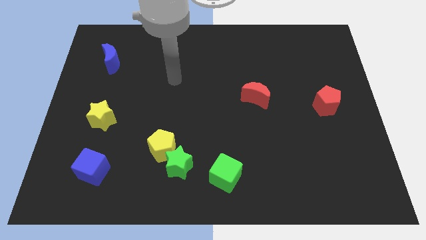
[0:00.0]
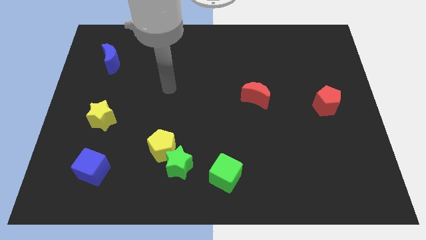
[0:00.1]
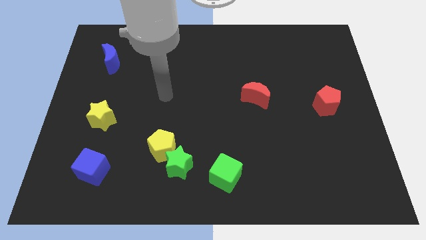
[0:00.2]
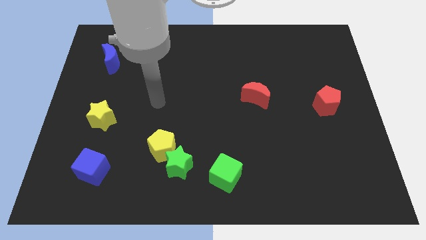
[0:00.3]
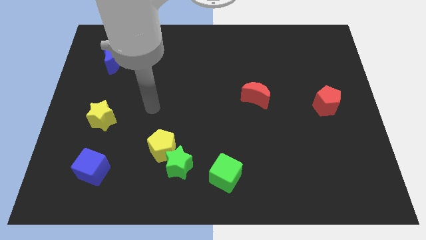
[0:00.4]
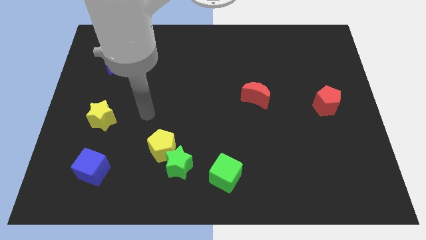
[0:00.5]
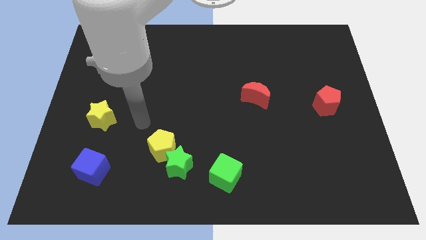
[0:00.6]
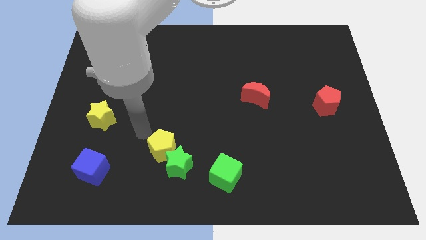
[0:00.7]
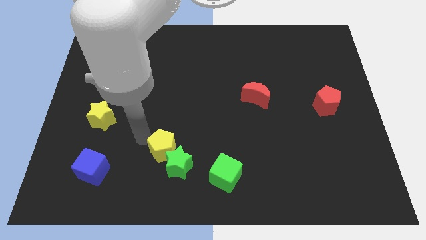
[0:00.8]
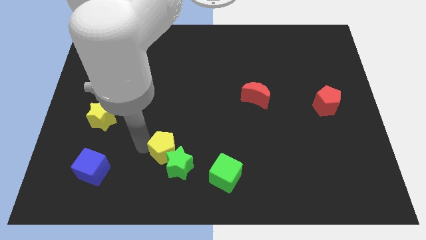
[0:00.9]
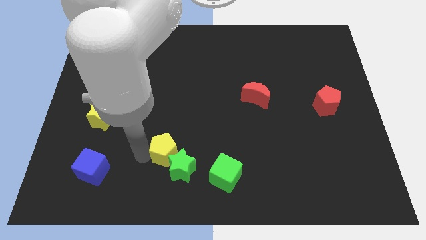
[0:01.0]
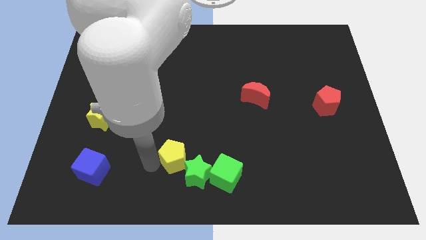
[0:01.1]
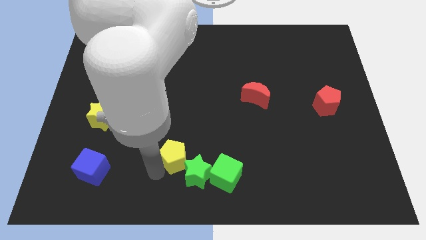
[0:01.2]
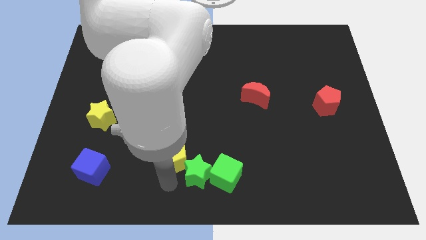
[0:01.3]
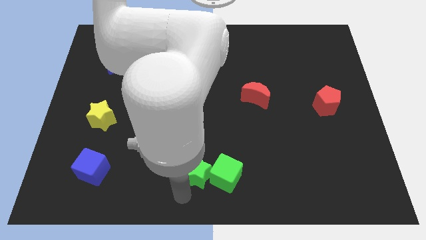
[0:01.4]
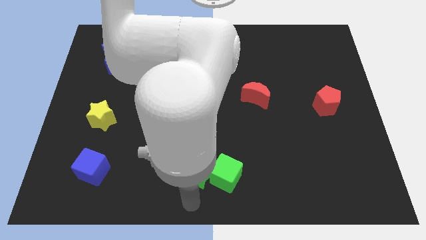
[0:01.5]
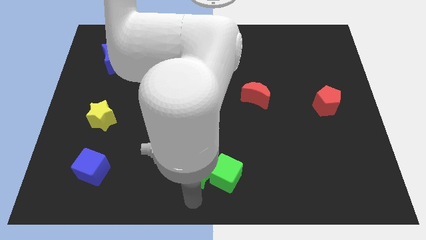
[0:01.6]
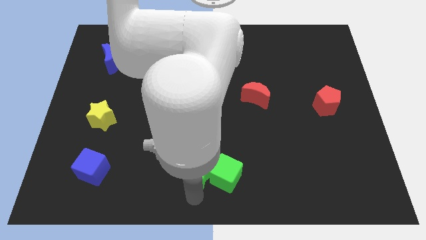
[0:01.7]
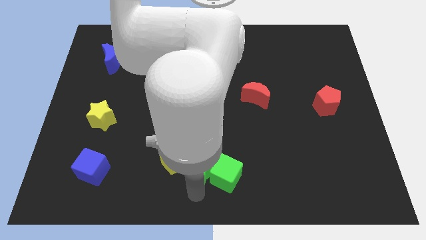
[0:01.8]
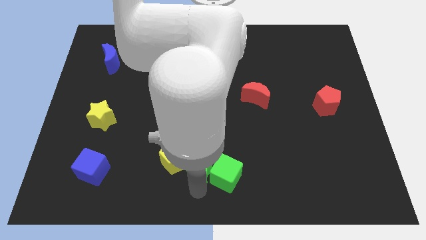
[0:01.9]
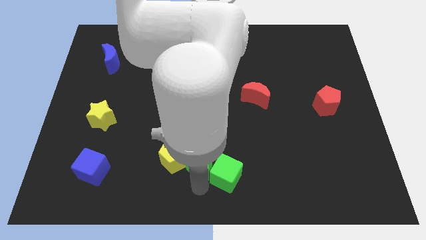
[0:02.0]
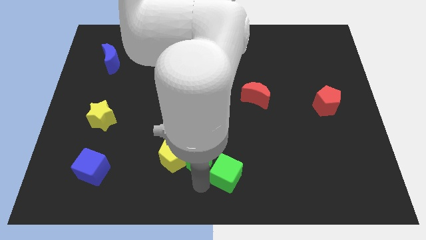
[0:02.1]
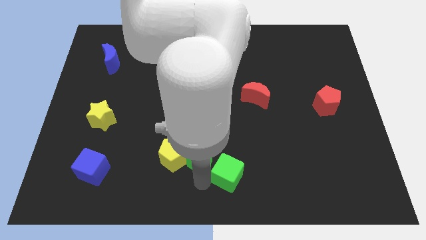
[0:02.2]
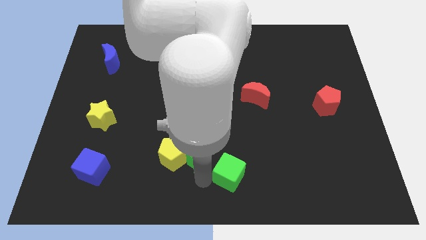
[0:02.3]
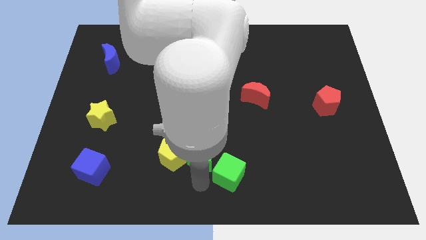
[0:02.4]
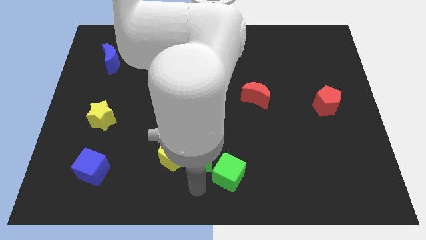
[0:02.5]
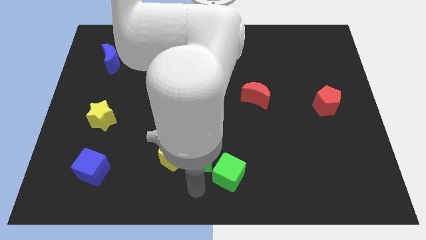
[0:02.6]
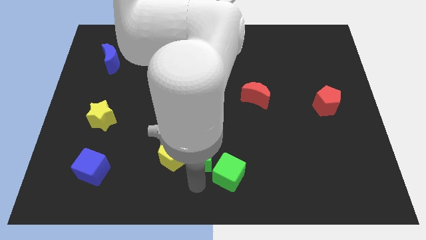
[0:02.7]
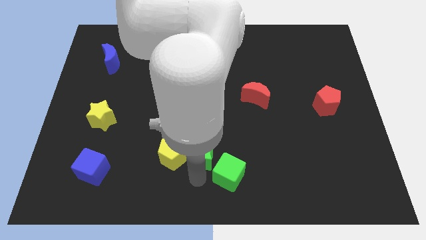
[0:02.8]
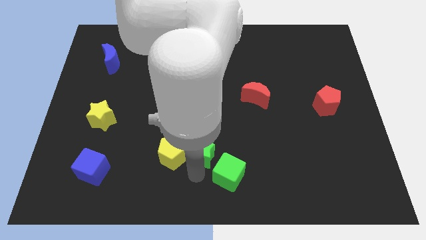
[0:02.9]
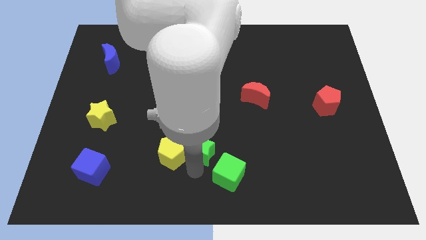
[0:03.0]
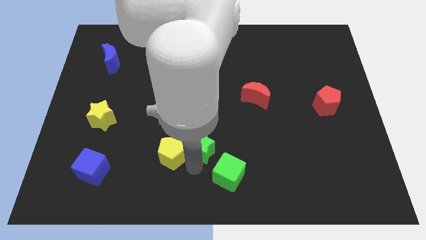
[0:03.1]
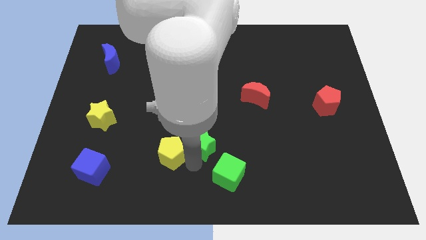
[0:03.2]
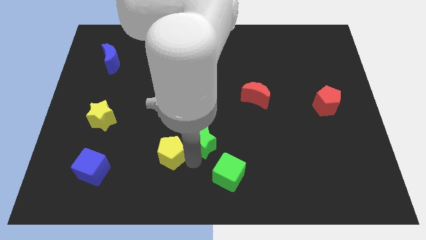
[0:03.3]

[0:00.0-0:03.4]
move the green star a little bit diagonally upwards and right

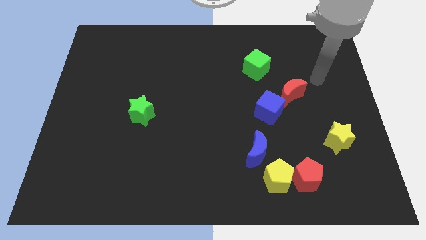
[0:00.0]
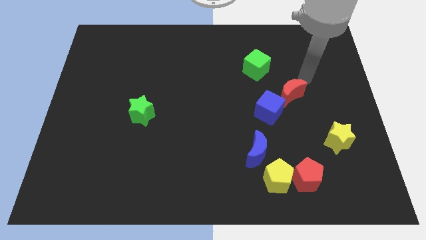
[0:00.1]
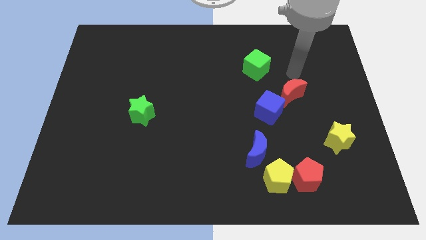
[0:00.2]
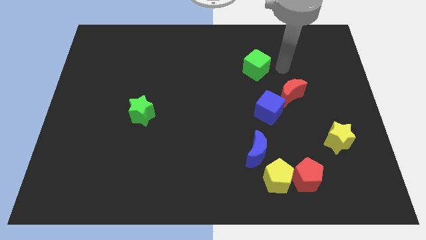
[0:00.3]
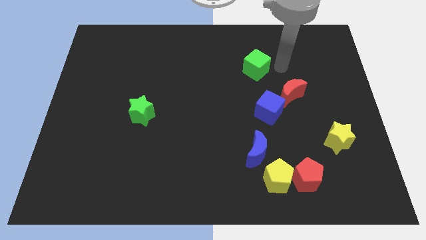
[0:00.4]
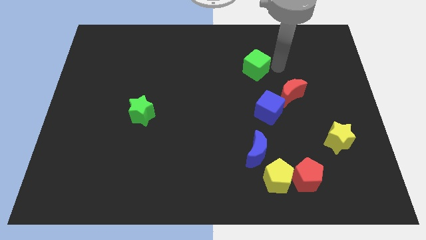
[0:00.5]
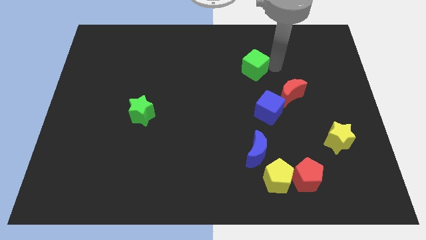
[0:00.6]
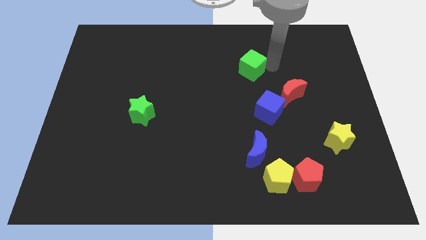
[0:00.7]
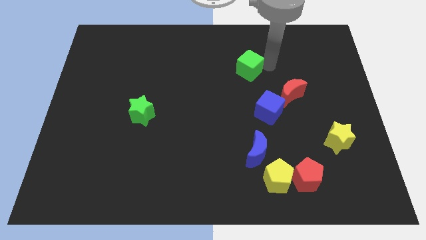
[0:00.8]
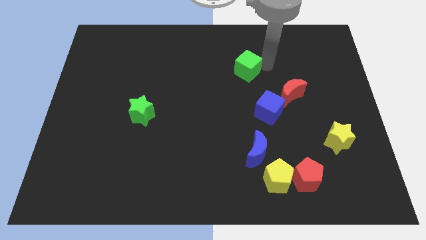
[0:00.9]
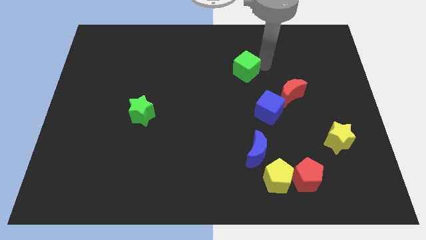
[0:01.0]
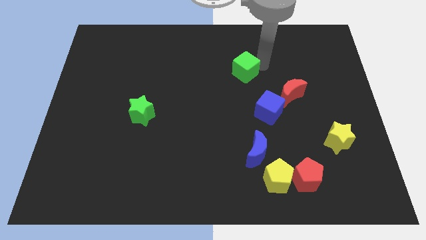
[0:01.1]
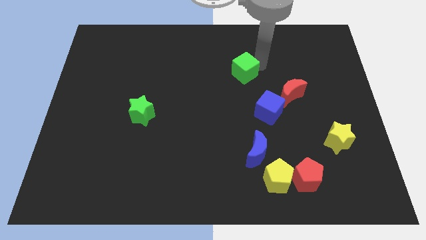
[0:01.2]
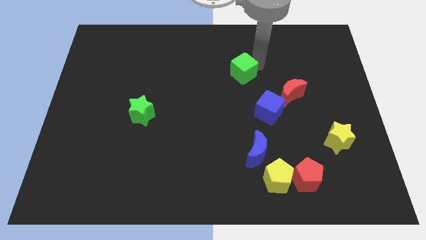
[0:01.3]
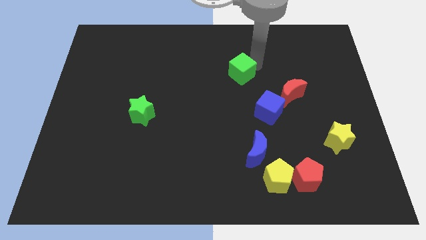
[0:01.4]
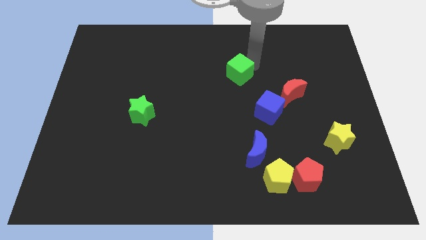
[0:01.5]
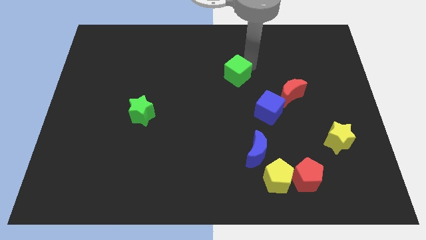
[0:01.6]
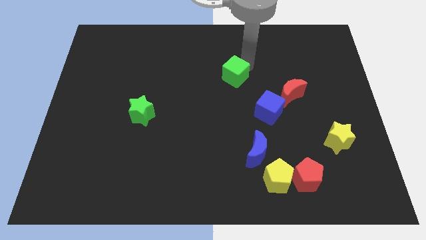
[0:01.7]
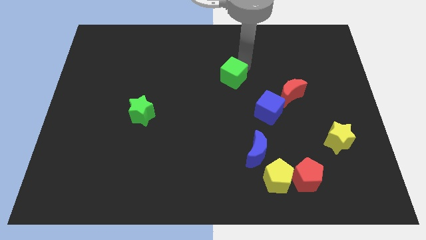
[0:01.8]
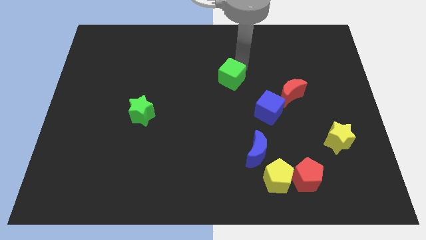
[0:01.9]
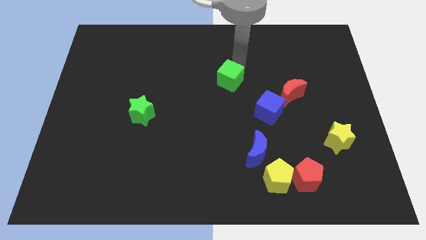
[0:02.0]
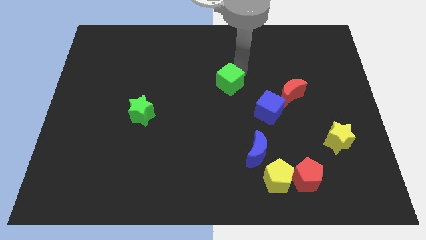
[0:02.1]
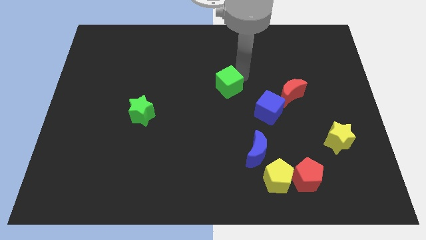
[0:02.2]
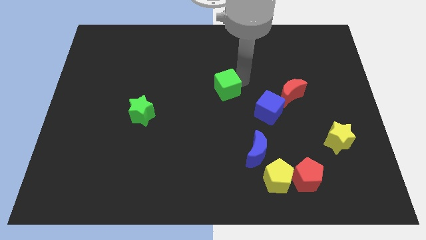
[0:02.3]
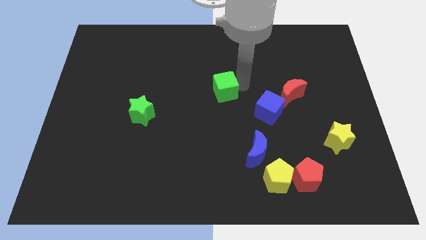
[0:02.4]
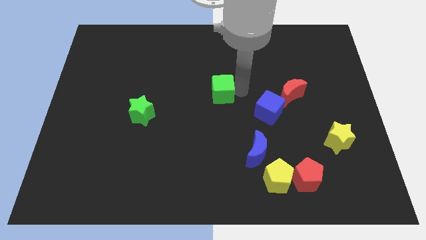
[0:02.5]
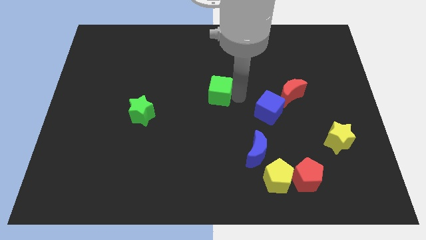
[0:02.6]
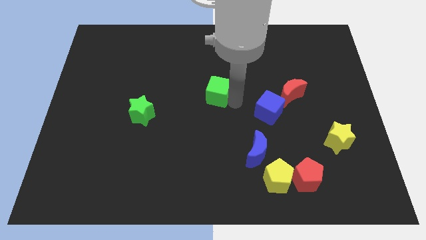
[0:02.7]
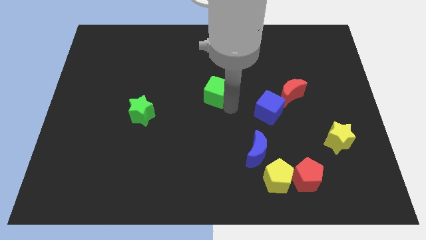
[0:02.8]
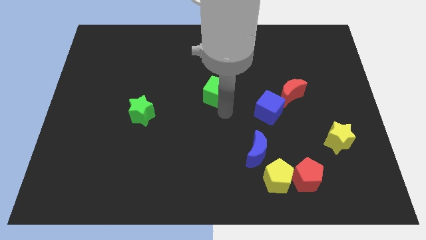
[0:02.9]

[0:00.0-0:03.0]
slightly push the green cube left

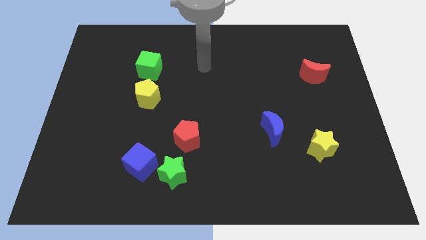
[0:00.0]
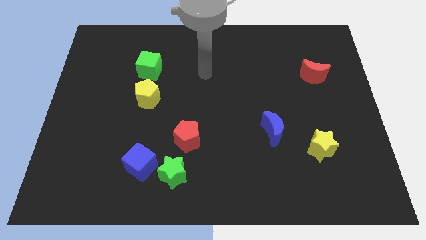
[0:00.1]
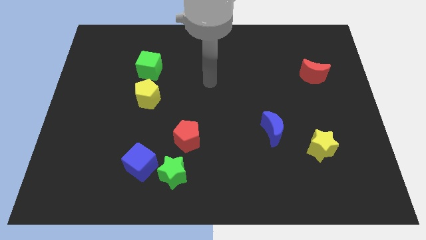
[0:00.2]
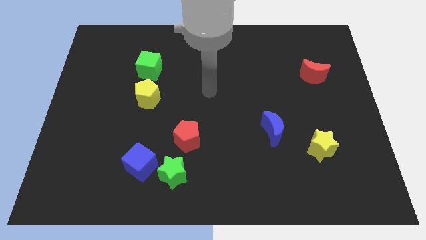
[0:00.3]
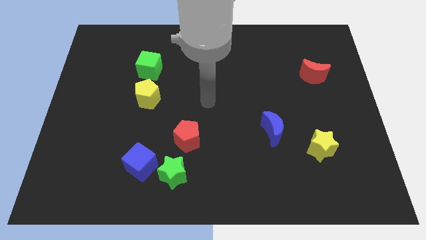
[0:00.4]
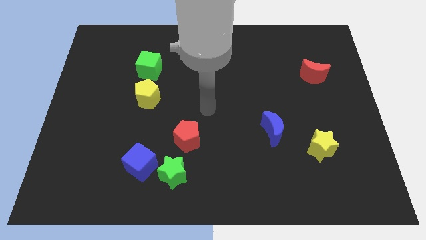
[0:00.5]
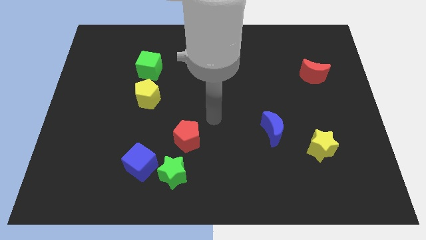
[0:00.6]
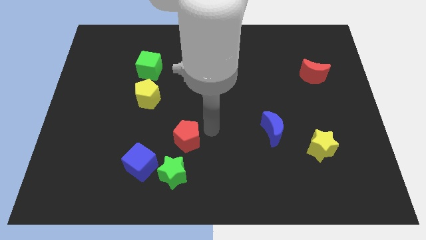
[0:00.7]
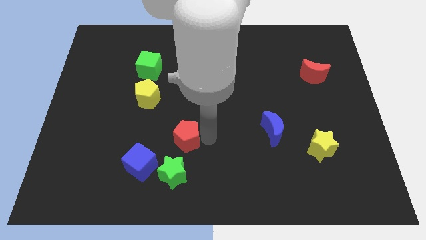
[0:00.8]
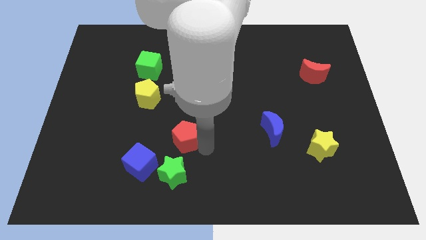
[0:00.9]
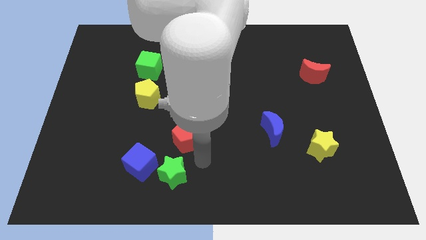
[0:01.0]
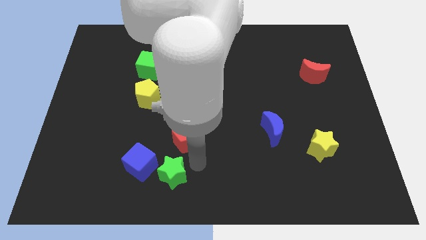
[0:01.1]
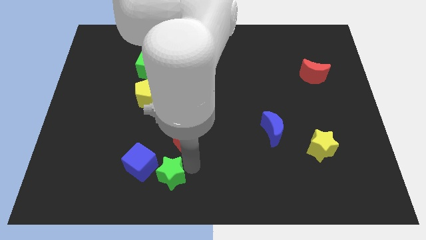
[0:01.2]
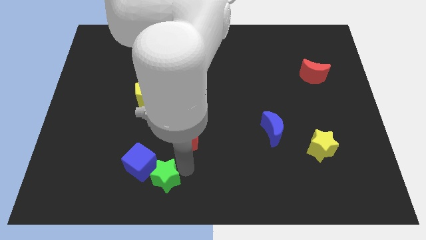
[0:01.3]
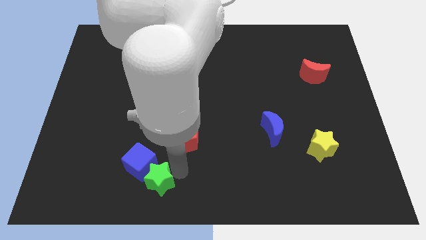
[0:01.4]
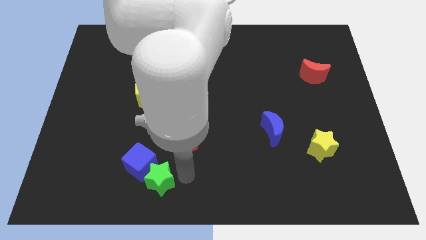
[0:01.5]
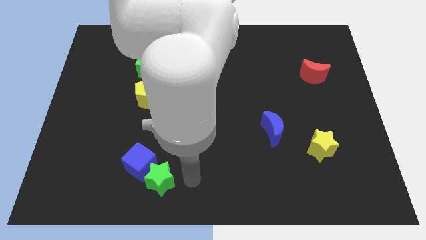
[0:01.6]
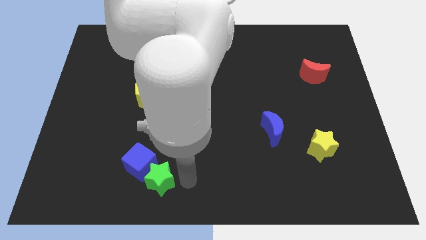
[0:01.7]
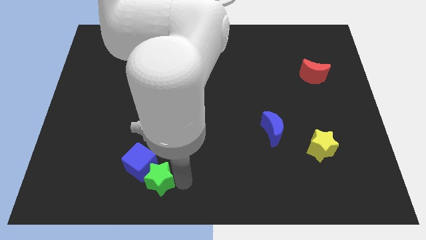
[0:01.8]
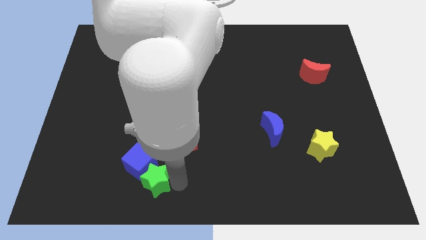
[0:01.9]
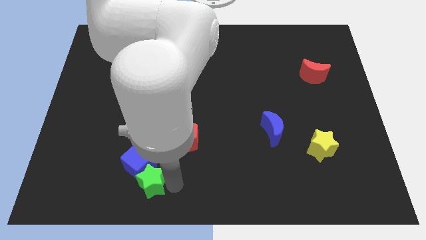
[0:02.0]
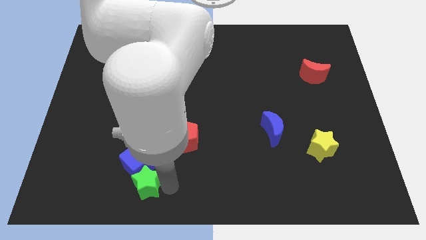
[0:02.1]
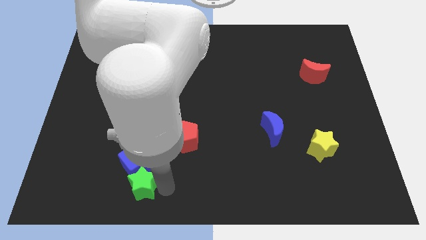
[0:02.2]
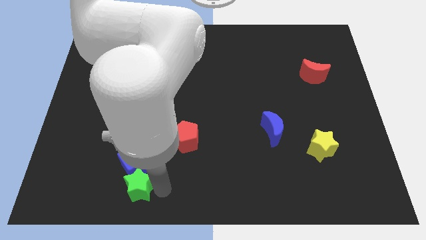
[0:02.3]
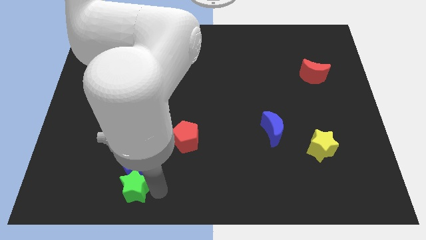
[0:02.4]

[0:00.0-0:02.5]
move the green star slightly to the left
